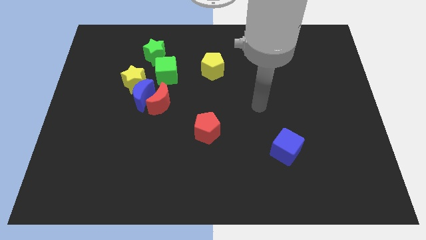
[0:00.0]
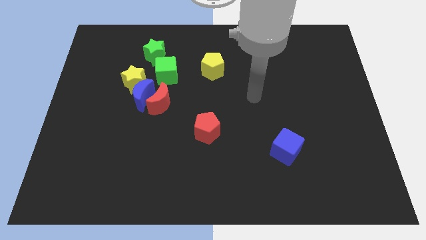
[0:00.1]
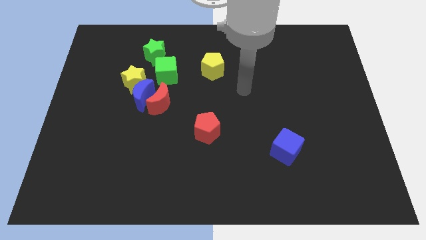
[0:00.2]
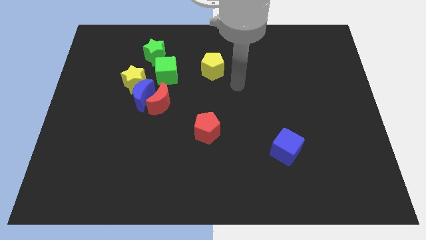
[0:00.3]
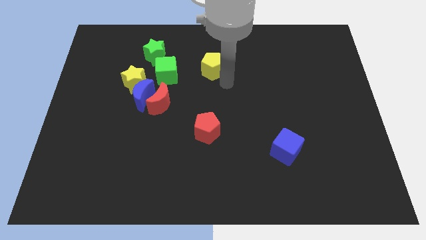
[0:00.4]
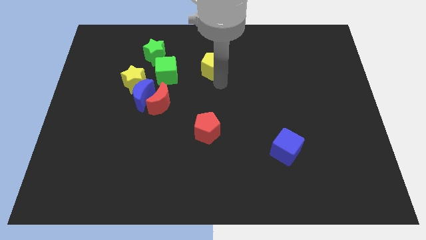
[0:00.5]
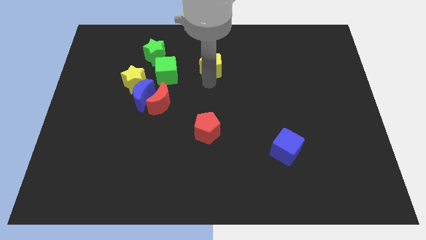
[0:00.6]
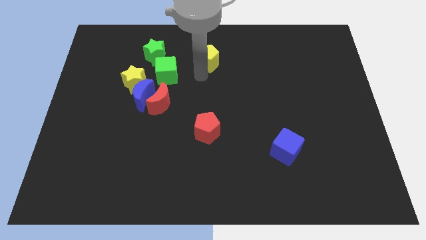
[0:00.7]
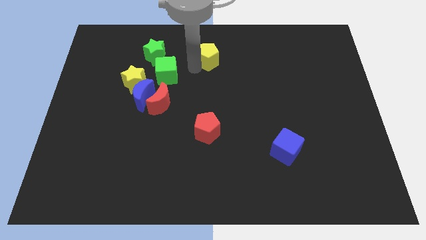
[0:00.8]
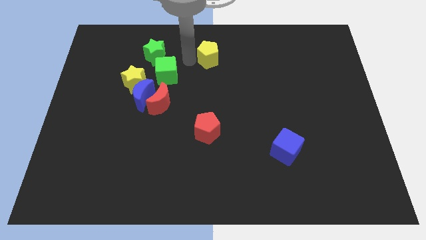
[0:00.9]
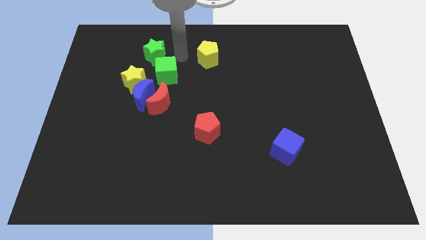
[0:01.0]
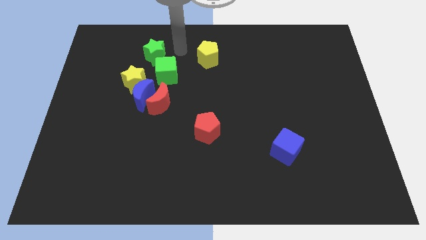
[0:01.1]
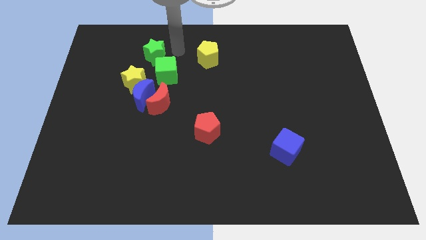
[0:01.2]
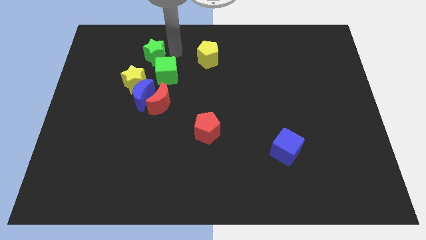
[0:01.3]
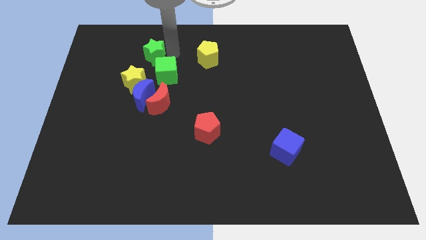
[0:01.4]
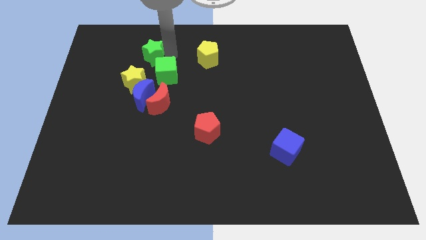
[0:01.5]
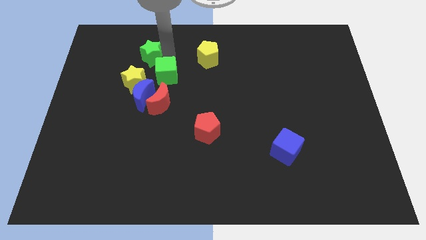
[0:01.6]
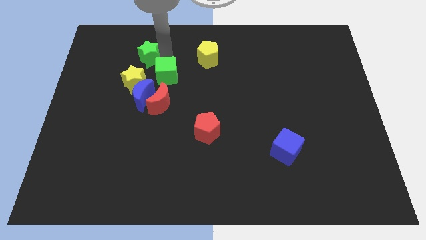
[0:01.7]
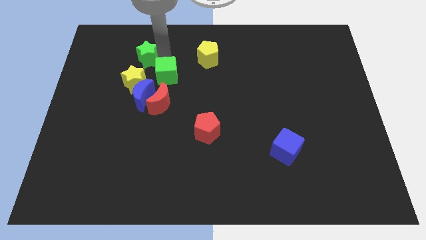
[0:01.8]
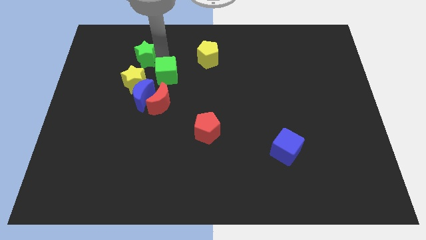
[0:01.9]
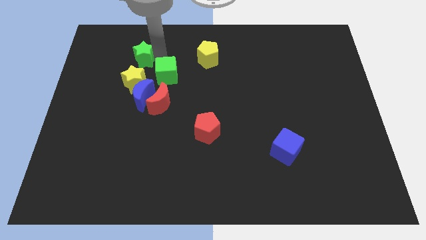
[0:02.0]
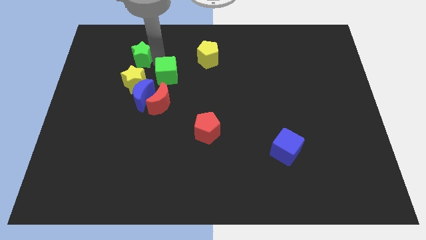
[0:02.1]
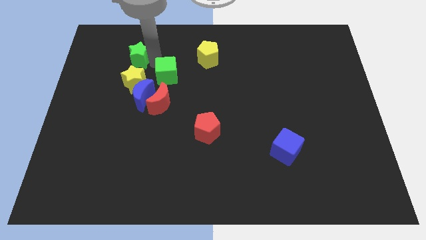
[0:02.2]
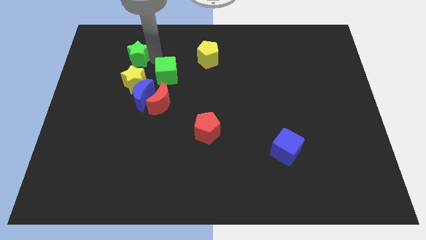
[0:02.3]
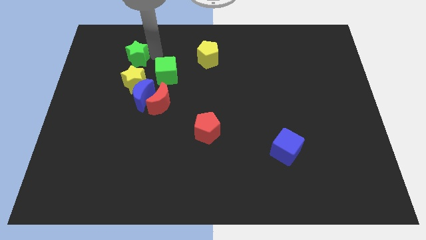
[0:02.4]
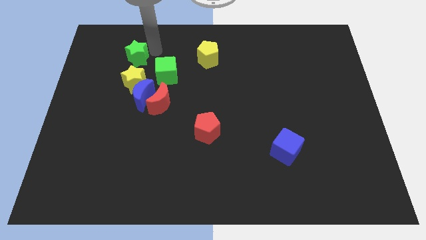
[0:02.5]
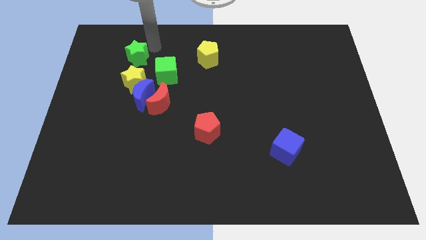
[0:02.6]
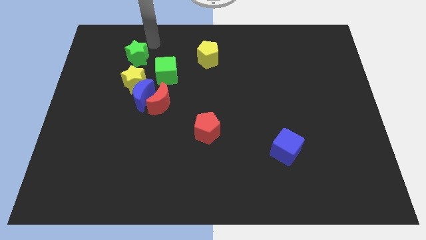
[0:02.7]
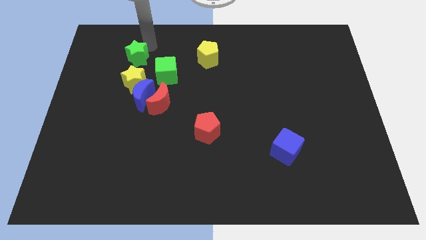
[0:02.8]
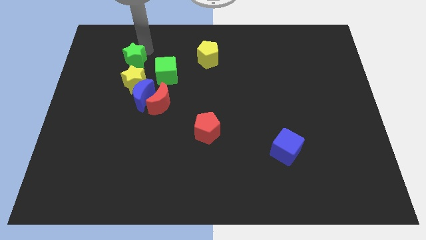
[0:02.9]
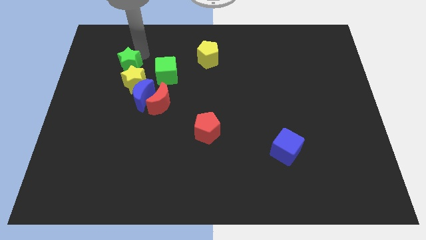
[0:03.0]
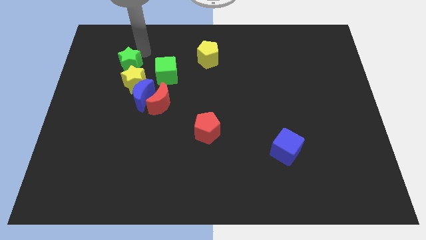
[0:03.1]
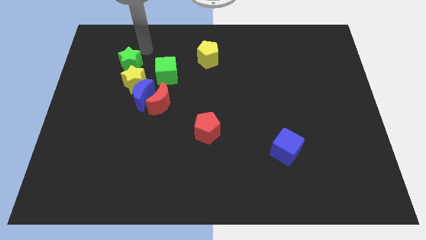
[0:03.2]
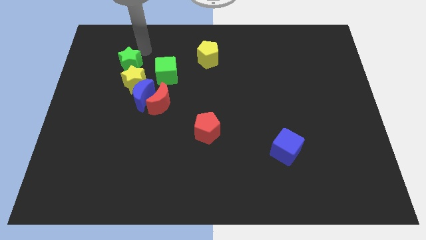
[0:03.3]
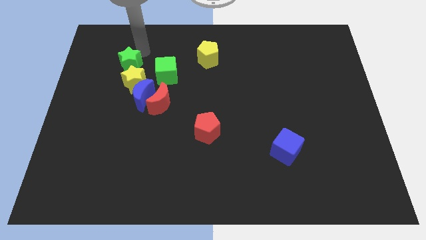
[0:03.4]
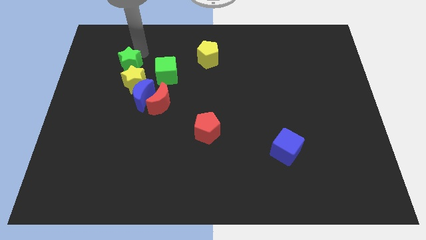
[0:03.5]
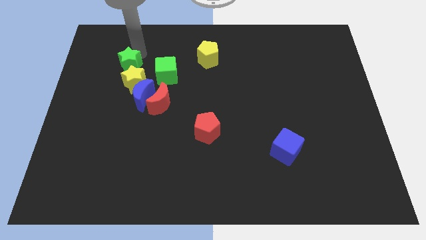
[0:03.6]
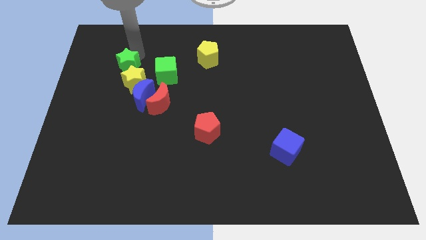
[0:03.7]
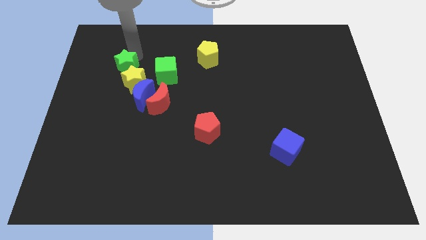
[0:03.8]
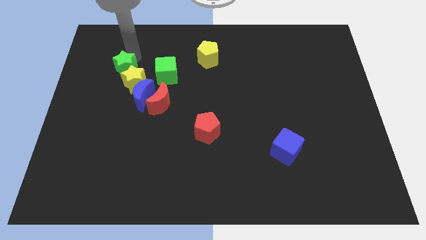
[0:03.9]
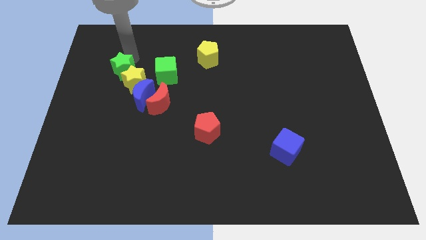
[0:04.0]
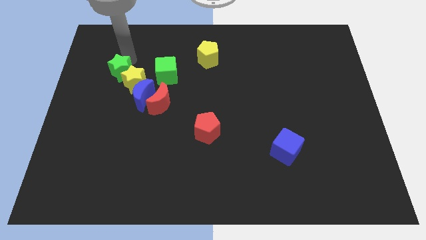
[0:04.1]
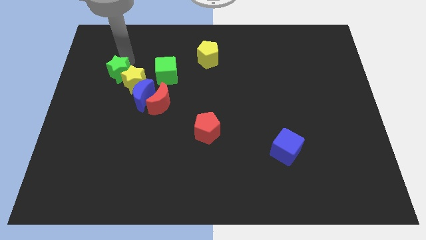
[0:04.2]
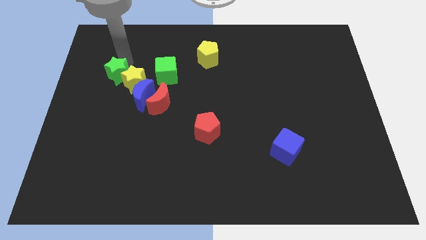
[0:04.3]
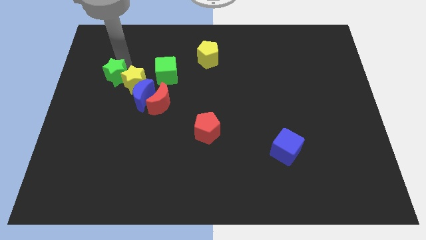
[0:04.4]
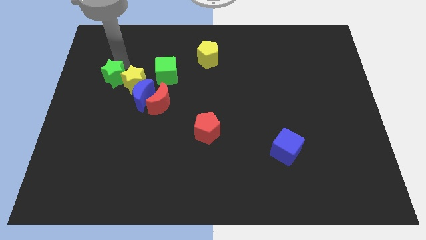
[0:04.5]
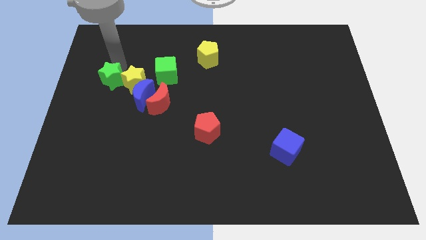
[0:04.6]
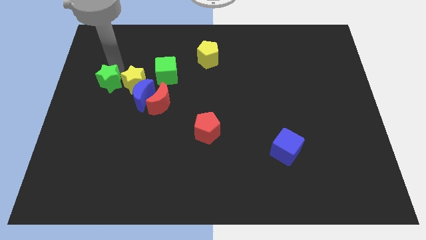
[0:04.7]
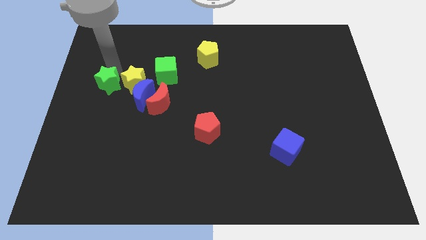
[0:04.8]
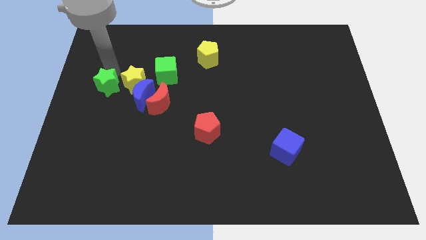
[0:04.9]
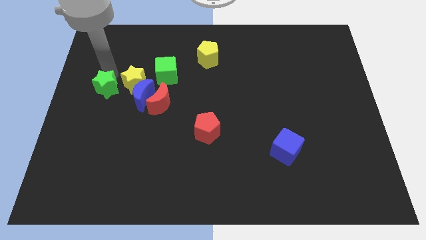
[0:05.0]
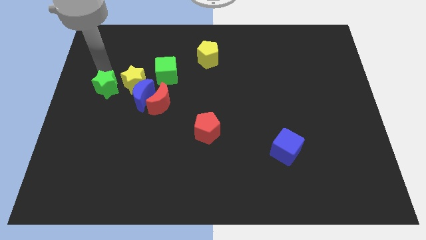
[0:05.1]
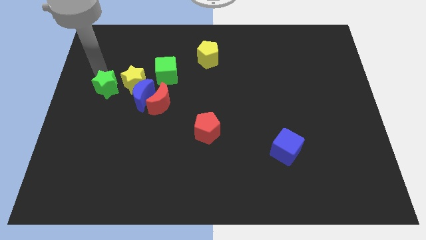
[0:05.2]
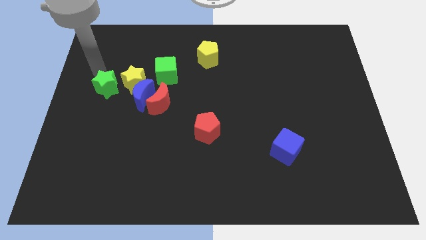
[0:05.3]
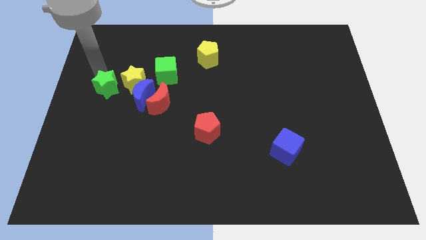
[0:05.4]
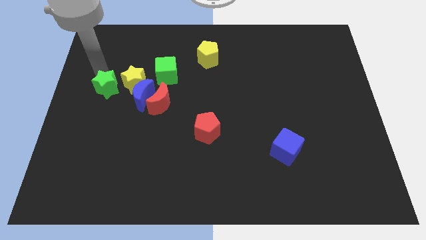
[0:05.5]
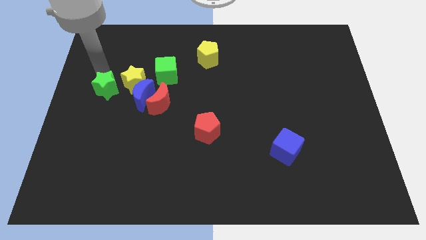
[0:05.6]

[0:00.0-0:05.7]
put the green star to the left of the red moon
